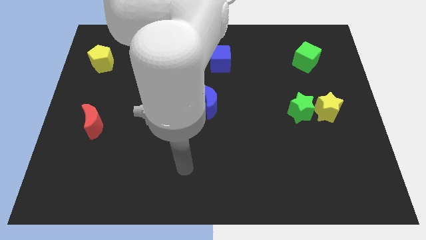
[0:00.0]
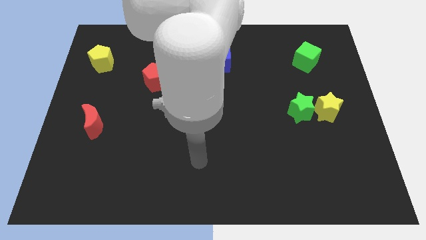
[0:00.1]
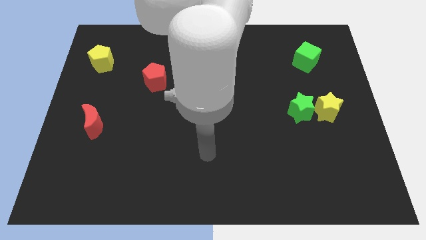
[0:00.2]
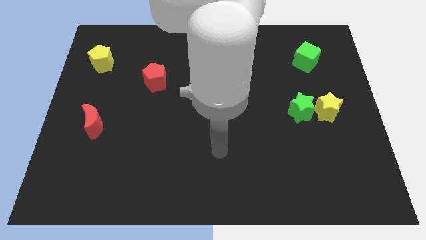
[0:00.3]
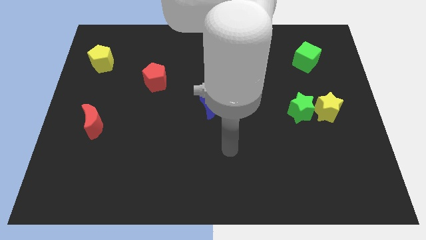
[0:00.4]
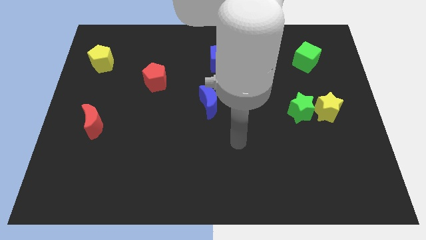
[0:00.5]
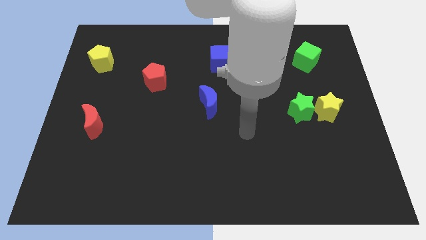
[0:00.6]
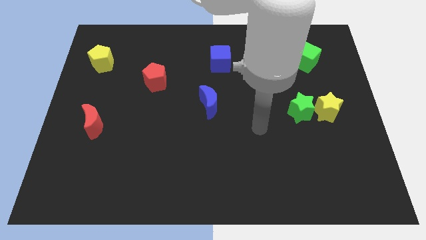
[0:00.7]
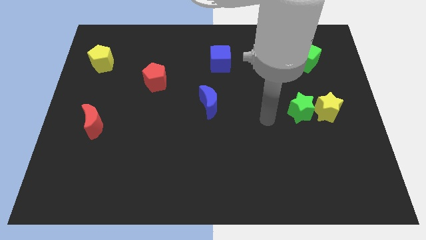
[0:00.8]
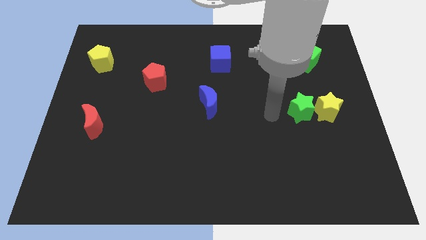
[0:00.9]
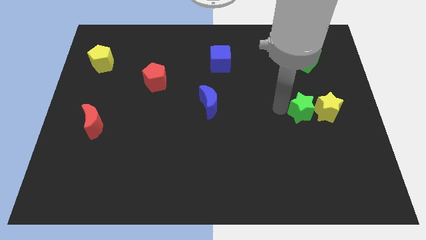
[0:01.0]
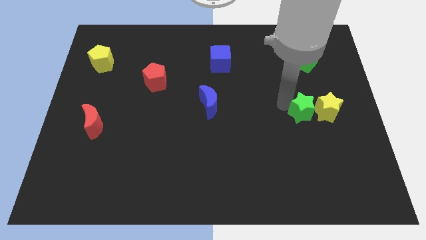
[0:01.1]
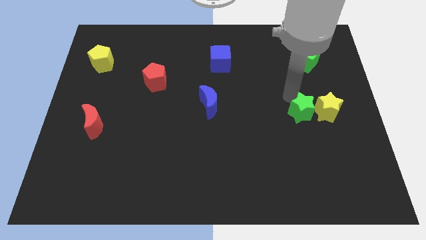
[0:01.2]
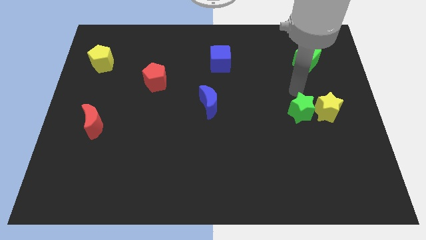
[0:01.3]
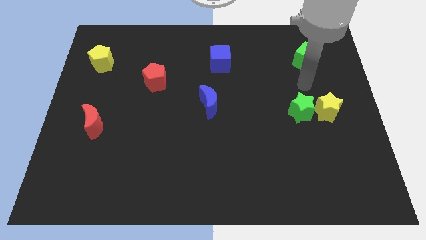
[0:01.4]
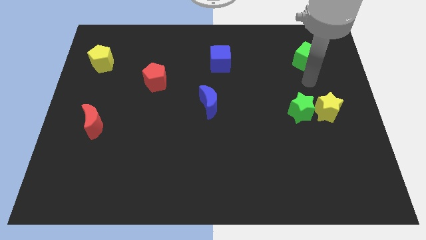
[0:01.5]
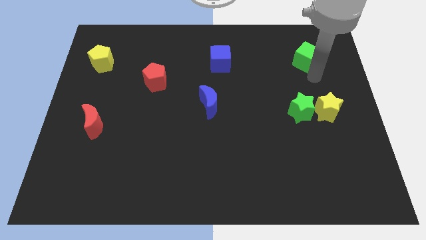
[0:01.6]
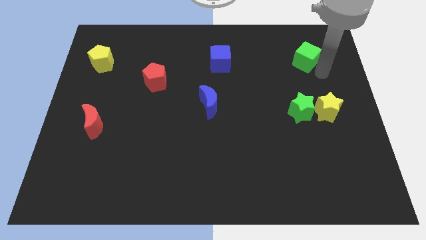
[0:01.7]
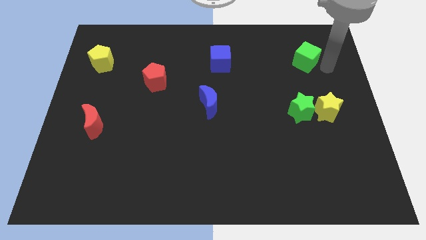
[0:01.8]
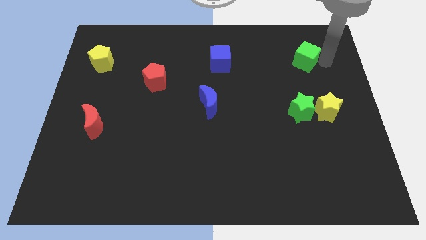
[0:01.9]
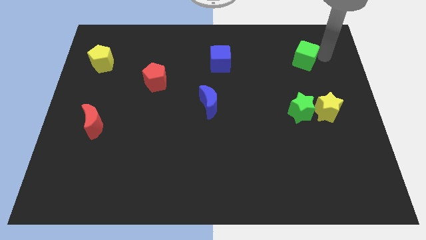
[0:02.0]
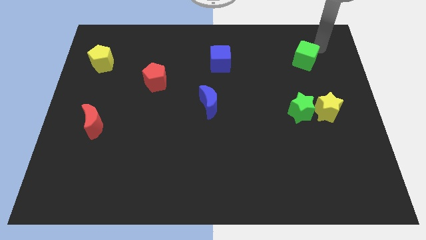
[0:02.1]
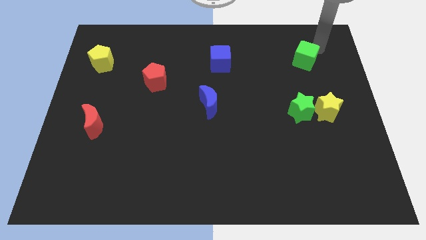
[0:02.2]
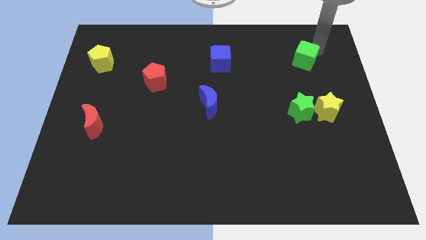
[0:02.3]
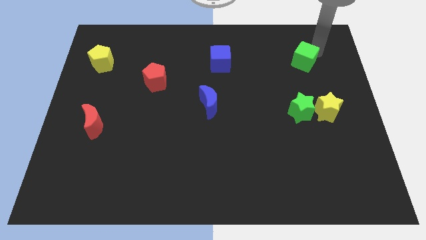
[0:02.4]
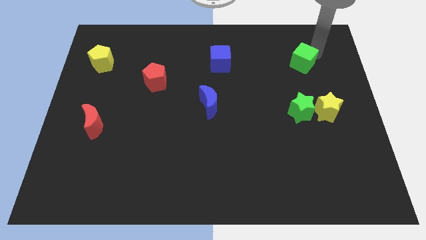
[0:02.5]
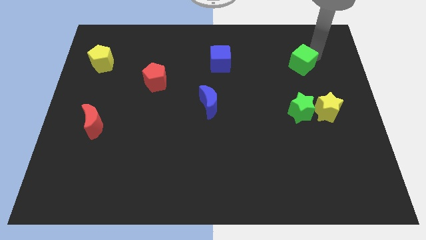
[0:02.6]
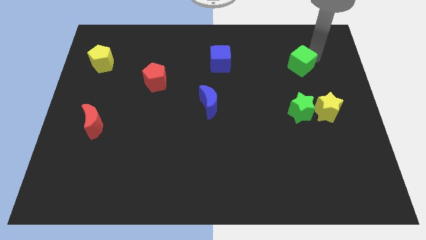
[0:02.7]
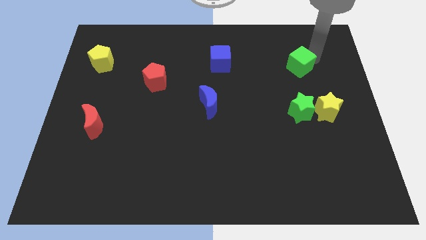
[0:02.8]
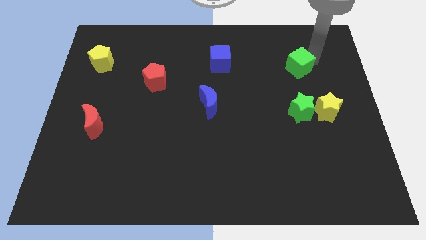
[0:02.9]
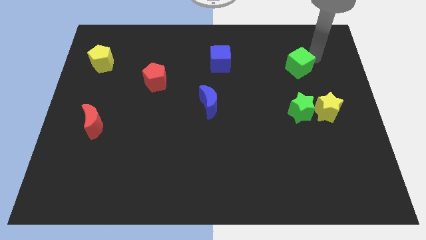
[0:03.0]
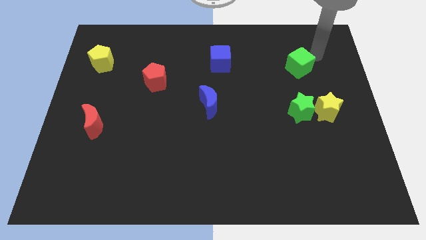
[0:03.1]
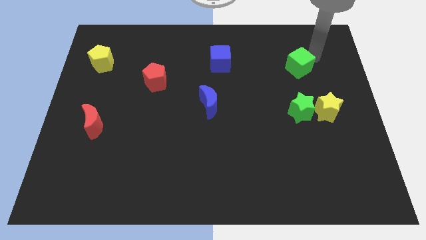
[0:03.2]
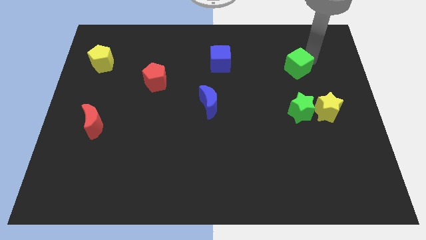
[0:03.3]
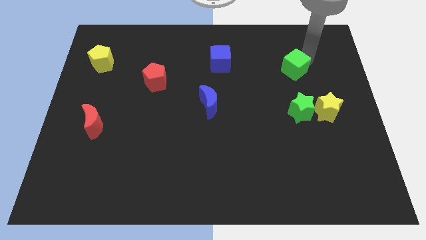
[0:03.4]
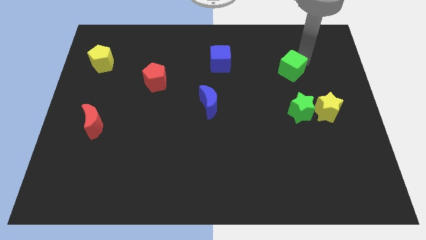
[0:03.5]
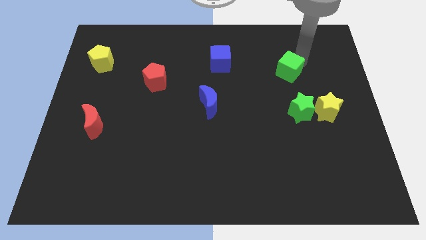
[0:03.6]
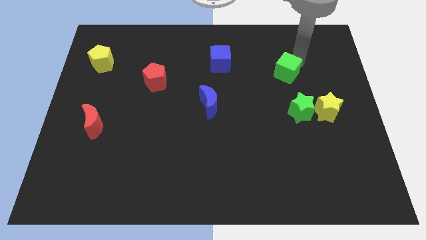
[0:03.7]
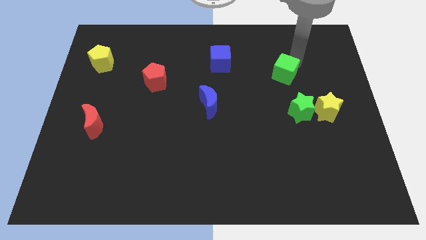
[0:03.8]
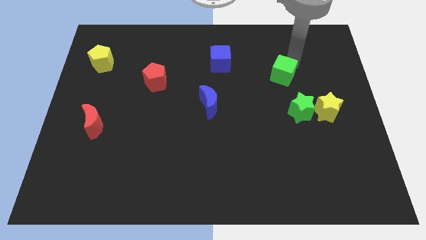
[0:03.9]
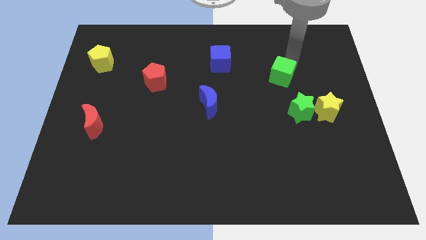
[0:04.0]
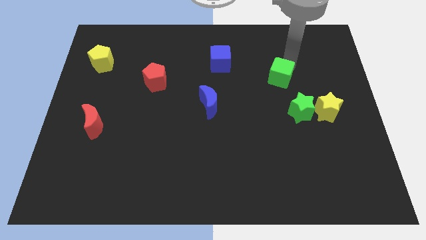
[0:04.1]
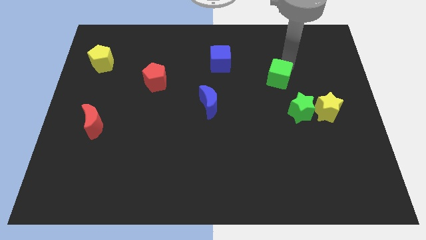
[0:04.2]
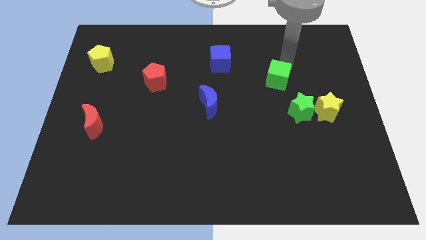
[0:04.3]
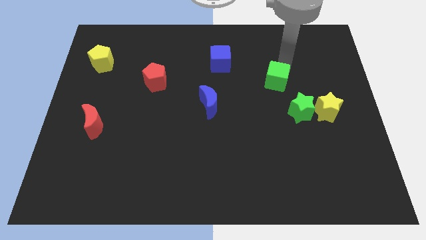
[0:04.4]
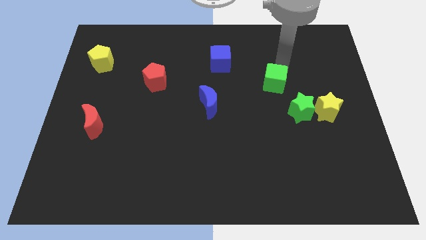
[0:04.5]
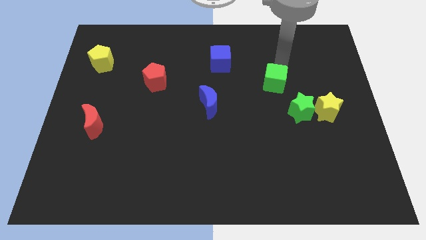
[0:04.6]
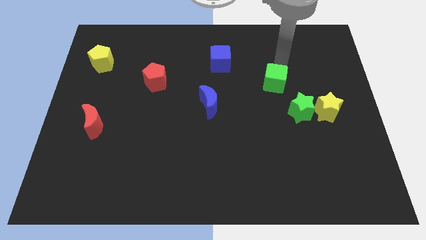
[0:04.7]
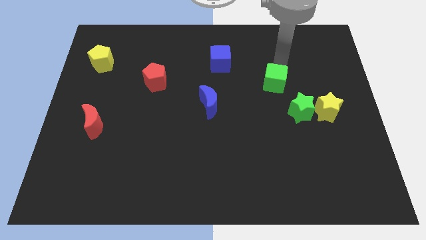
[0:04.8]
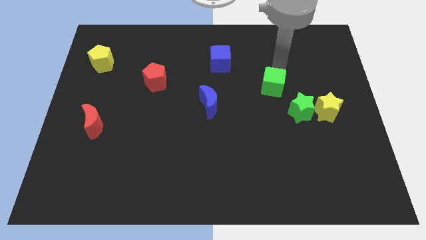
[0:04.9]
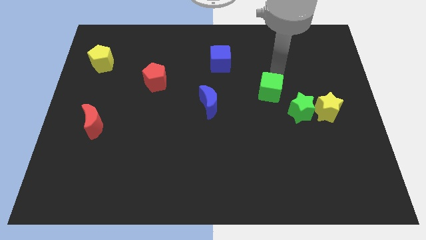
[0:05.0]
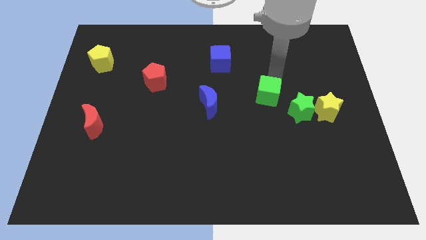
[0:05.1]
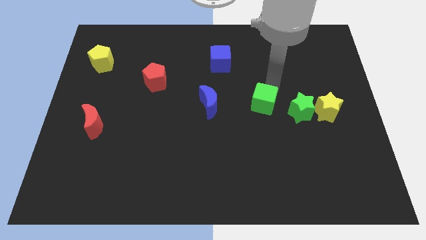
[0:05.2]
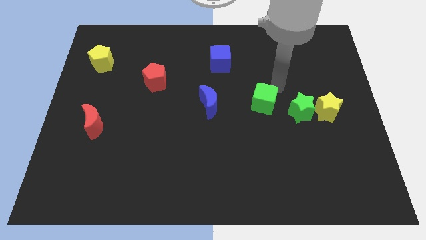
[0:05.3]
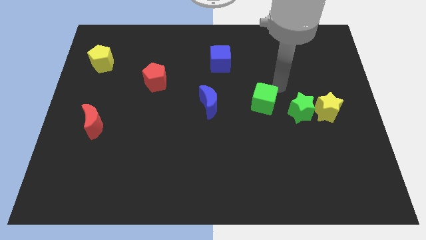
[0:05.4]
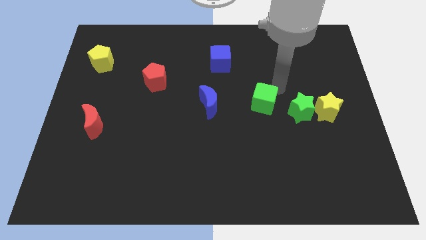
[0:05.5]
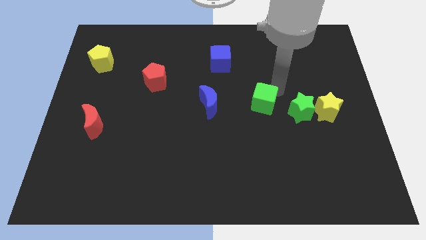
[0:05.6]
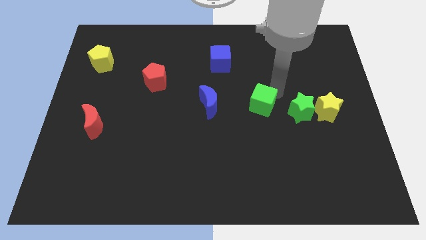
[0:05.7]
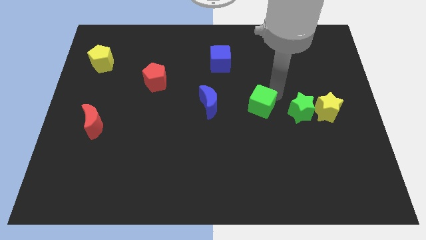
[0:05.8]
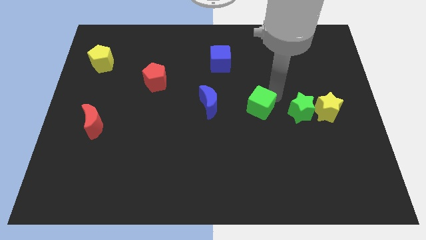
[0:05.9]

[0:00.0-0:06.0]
push the green cube diagonally down and left

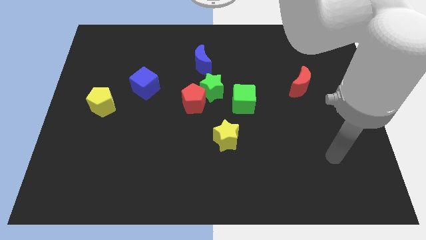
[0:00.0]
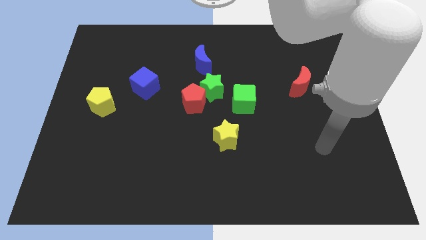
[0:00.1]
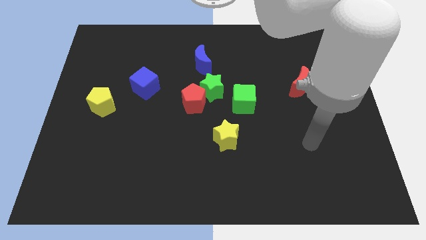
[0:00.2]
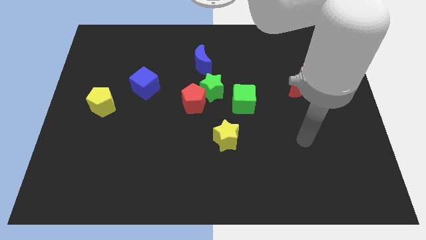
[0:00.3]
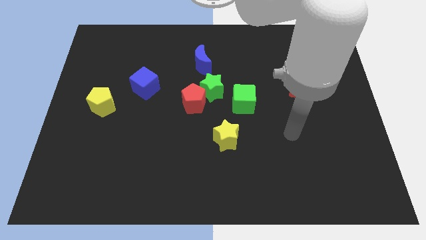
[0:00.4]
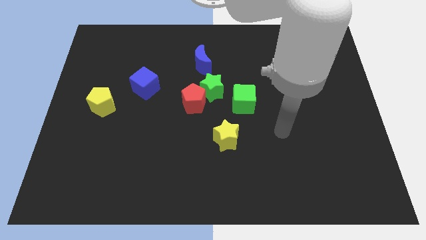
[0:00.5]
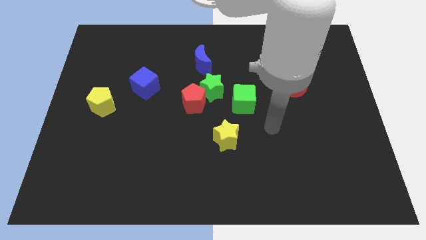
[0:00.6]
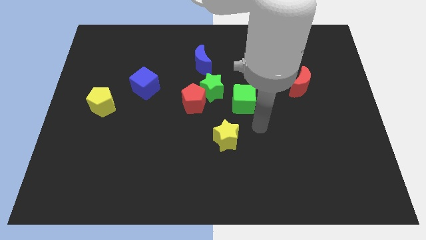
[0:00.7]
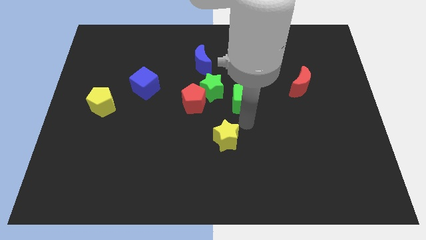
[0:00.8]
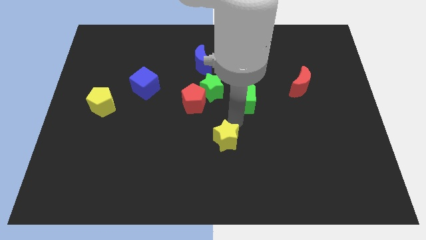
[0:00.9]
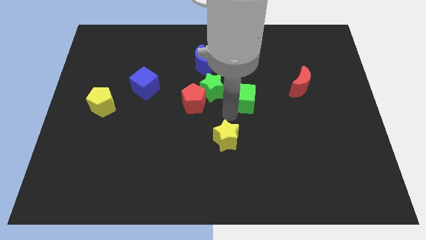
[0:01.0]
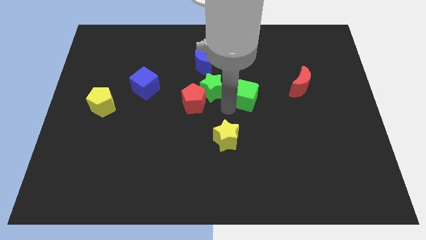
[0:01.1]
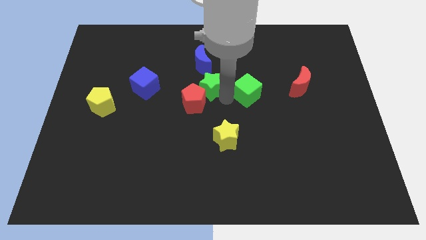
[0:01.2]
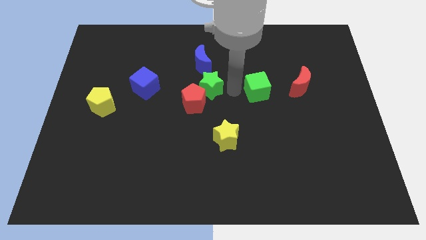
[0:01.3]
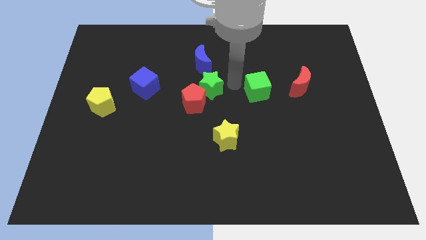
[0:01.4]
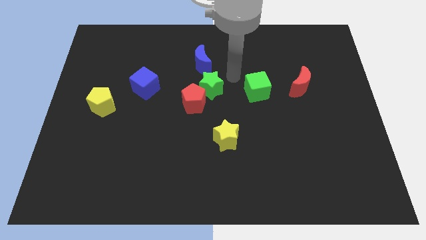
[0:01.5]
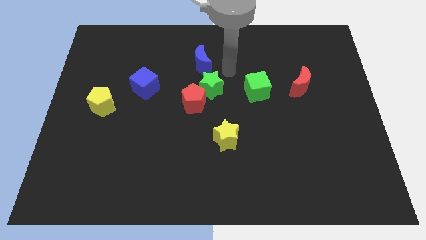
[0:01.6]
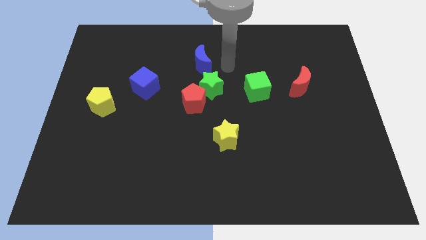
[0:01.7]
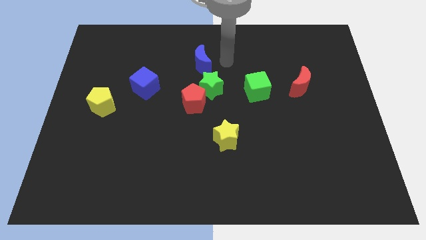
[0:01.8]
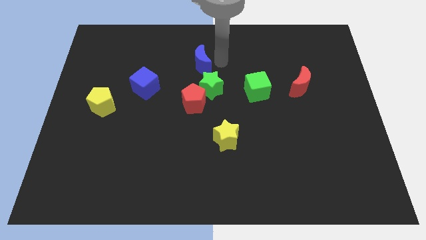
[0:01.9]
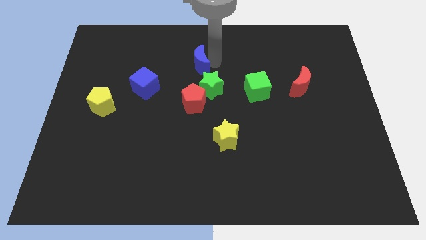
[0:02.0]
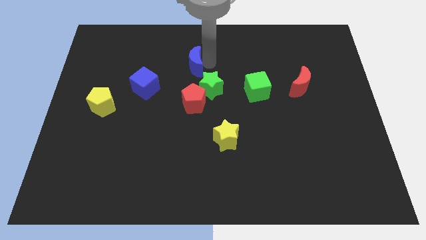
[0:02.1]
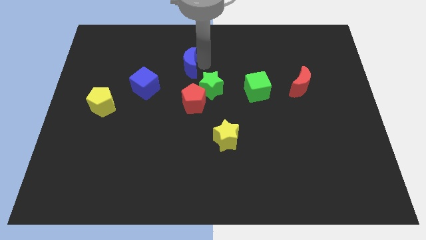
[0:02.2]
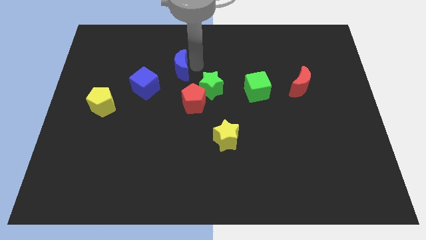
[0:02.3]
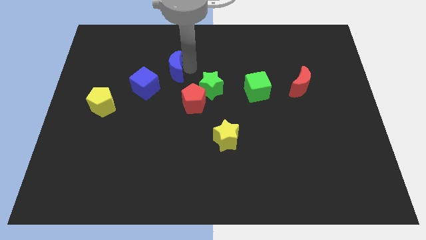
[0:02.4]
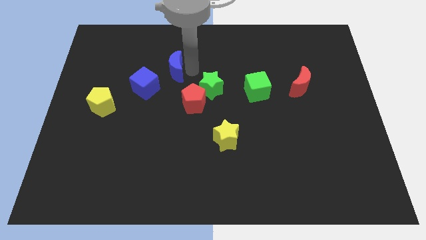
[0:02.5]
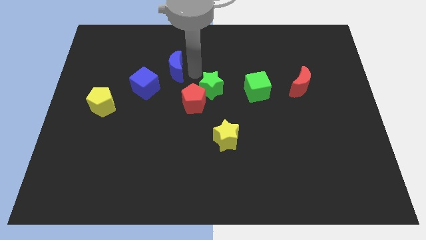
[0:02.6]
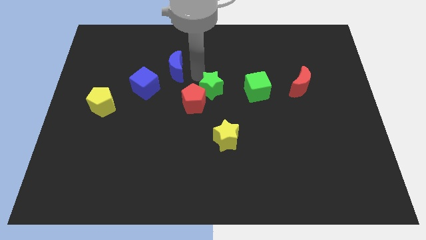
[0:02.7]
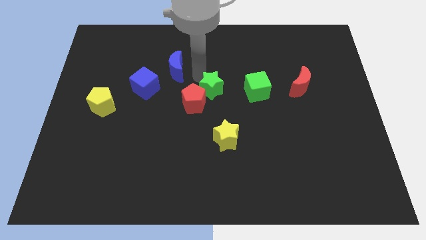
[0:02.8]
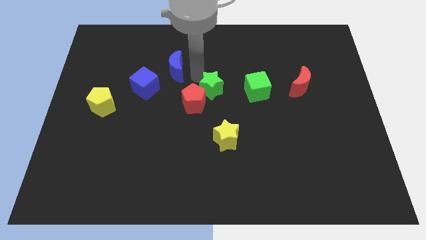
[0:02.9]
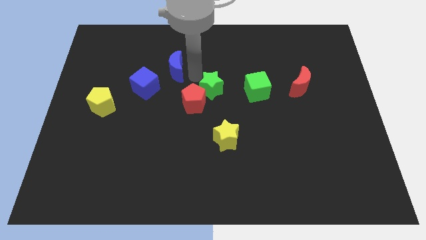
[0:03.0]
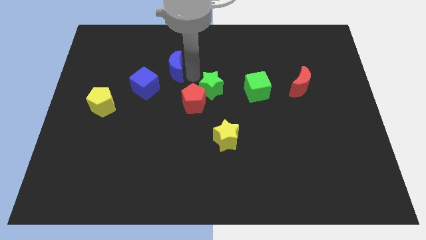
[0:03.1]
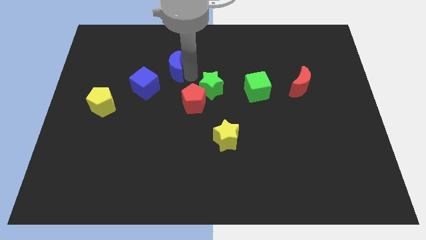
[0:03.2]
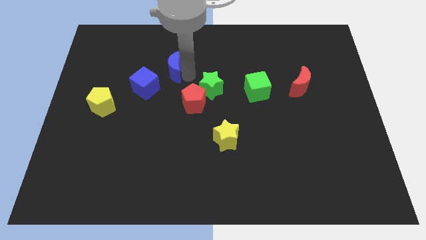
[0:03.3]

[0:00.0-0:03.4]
slide the blue moon a little bit left
